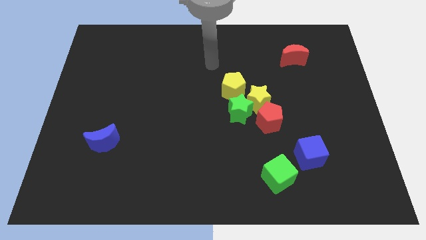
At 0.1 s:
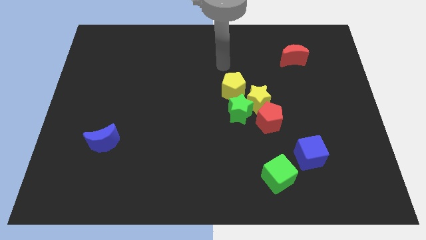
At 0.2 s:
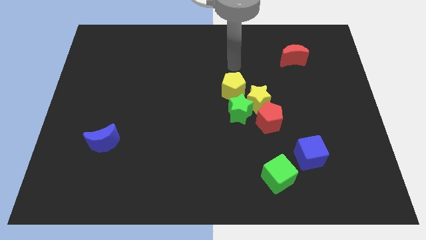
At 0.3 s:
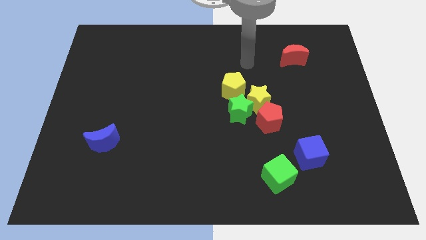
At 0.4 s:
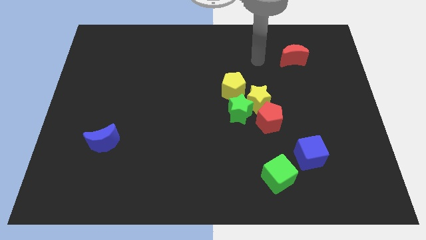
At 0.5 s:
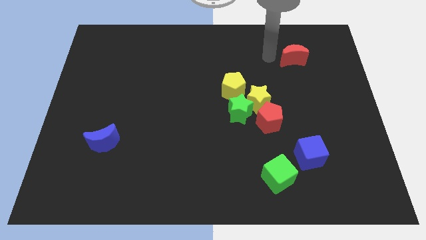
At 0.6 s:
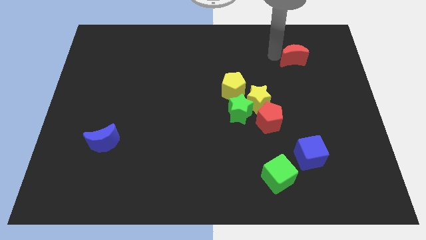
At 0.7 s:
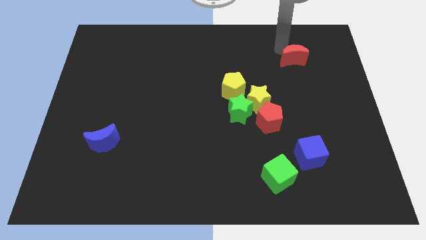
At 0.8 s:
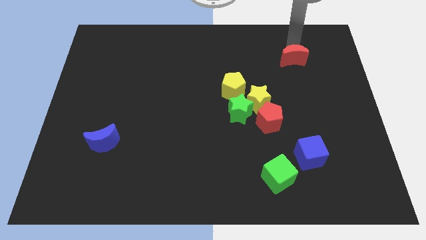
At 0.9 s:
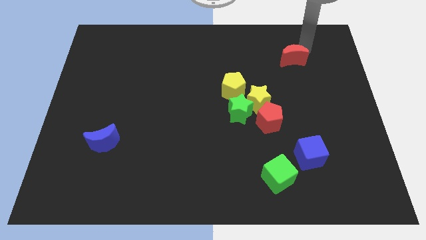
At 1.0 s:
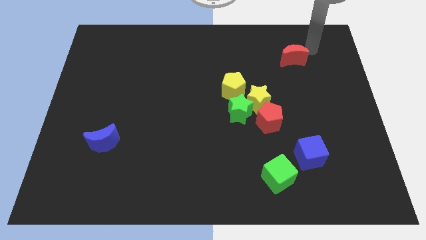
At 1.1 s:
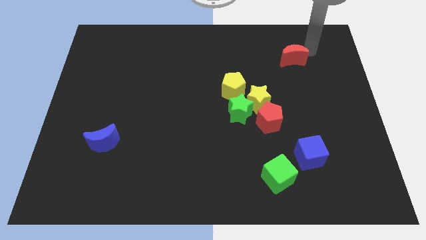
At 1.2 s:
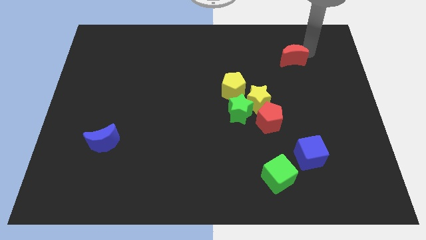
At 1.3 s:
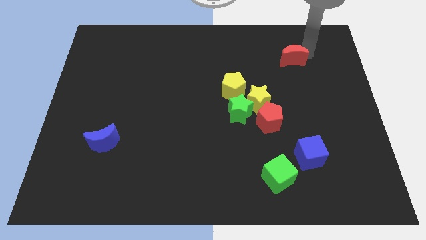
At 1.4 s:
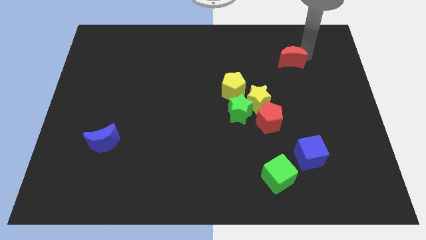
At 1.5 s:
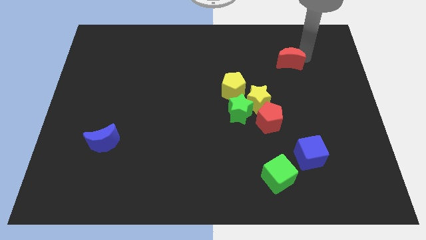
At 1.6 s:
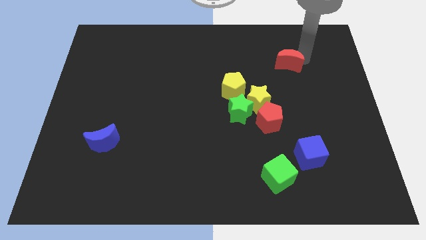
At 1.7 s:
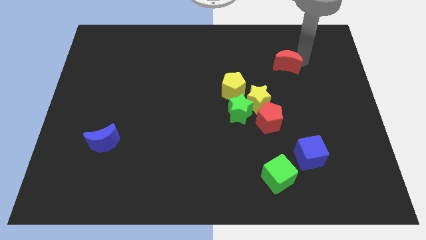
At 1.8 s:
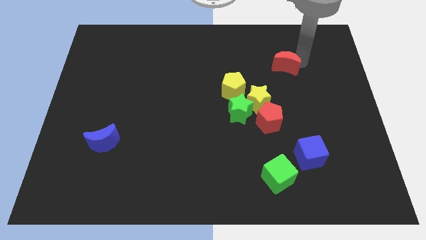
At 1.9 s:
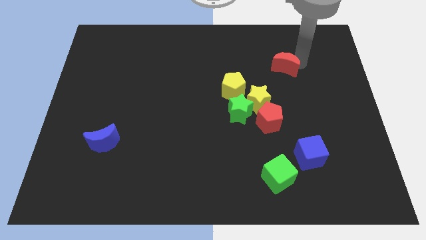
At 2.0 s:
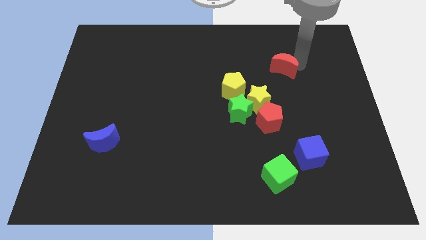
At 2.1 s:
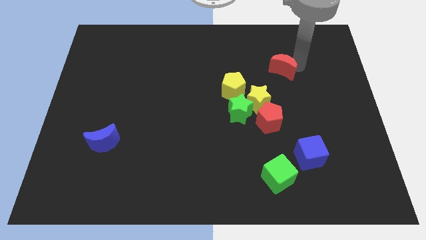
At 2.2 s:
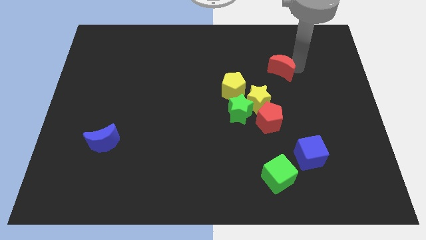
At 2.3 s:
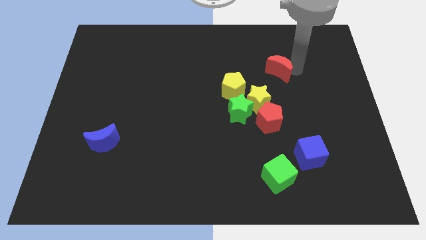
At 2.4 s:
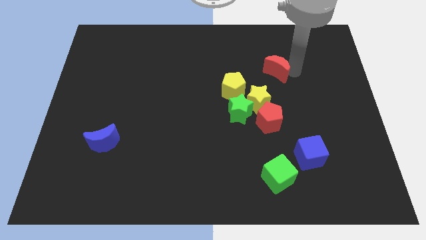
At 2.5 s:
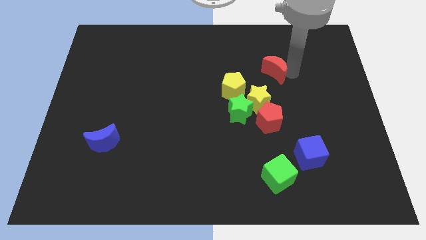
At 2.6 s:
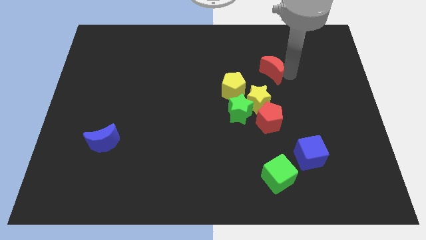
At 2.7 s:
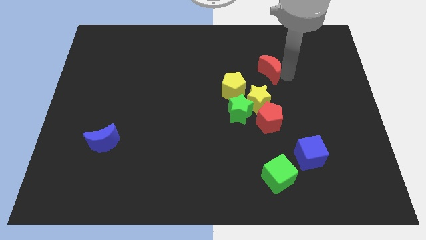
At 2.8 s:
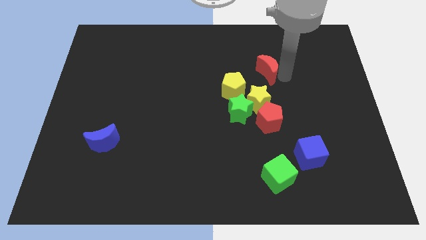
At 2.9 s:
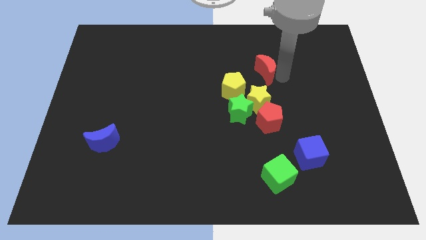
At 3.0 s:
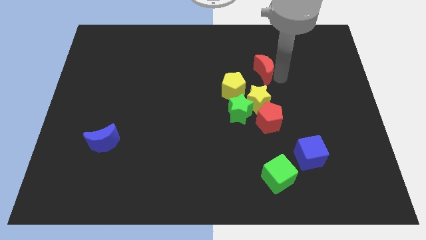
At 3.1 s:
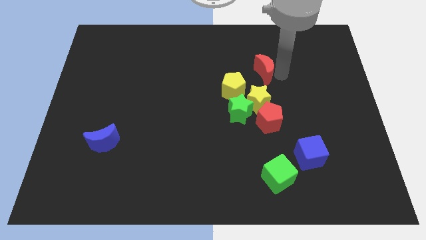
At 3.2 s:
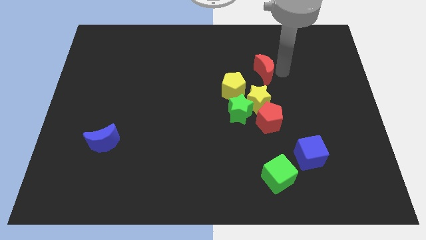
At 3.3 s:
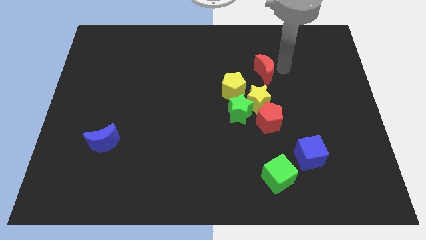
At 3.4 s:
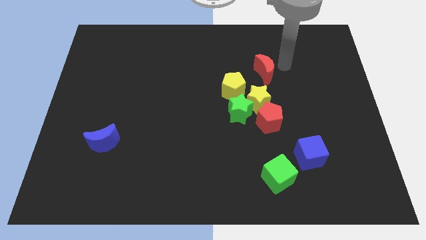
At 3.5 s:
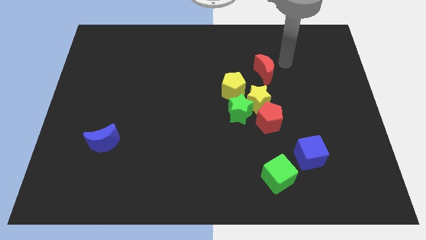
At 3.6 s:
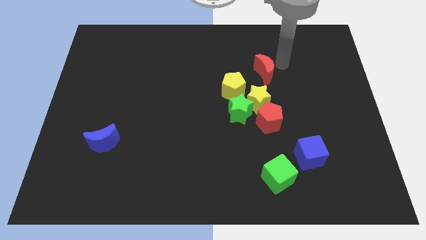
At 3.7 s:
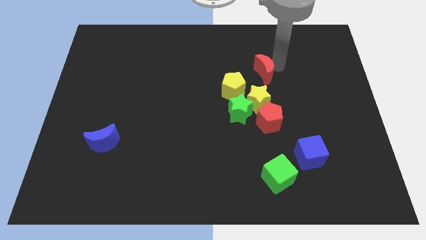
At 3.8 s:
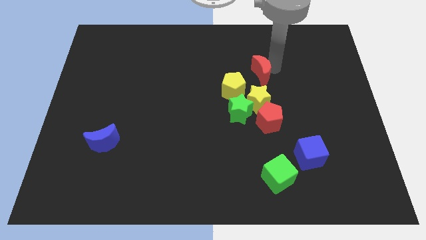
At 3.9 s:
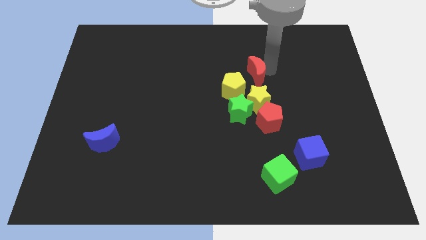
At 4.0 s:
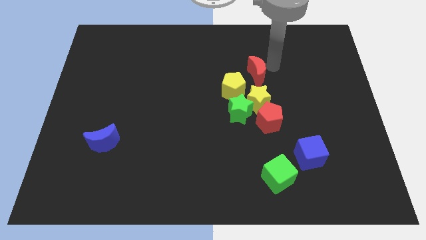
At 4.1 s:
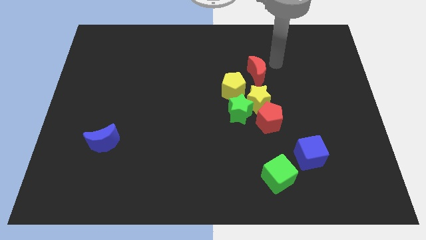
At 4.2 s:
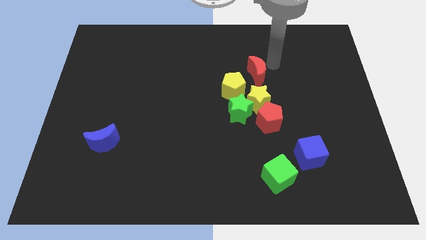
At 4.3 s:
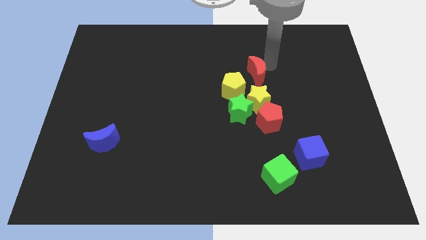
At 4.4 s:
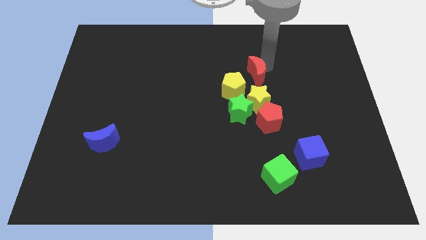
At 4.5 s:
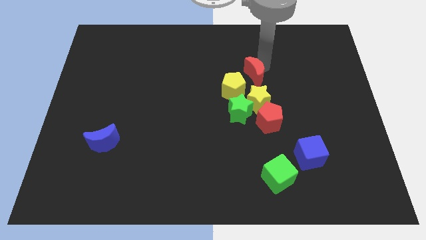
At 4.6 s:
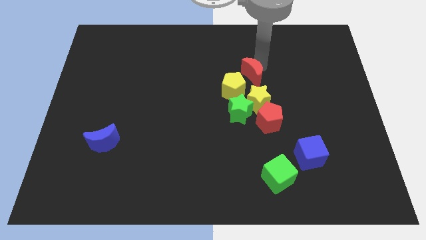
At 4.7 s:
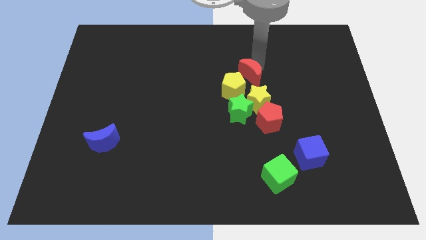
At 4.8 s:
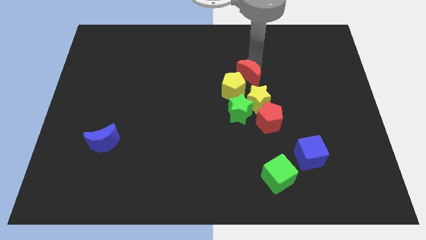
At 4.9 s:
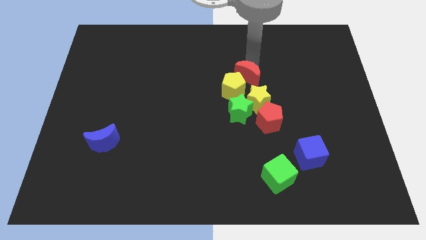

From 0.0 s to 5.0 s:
put the red moon towards the yellow pentagon

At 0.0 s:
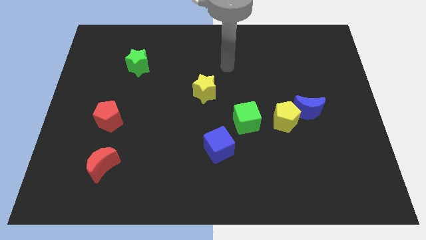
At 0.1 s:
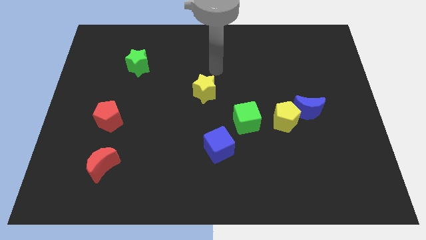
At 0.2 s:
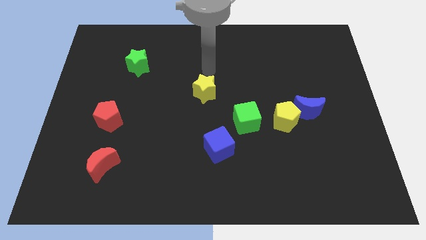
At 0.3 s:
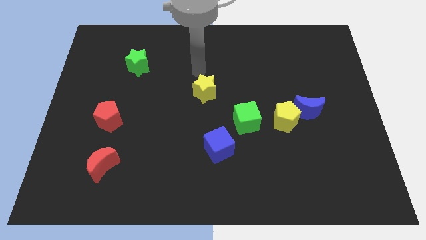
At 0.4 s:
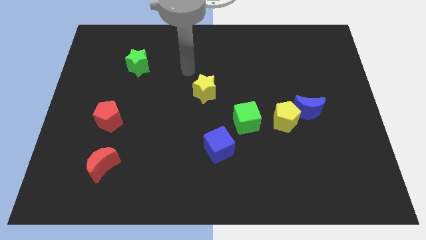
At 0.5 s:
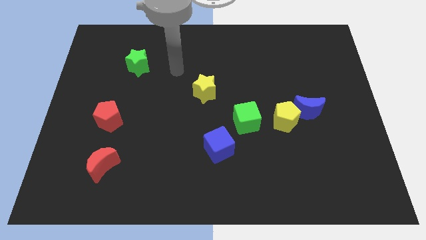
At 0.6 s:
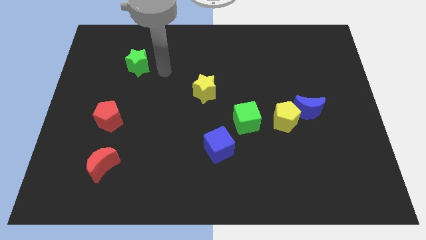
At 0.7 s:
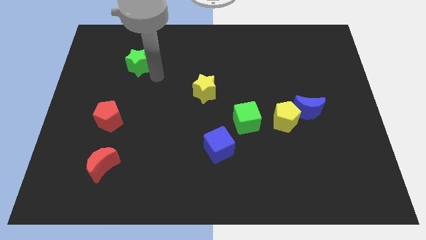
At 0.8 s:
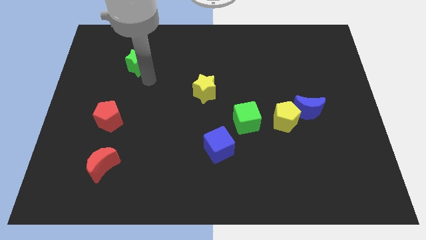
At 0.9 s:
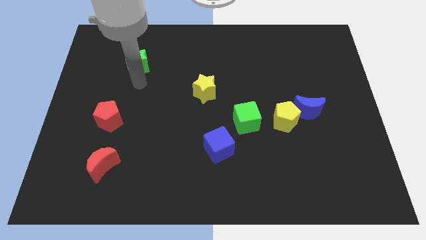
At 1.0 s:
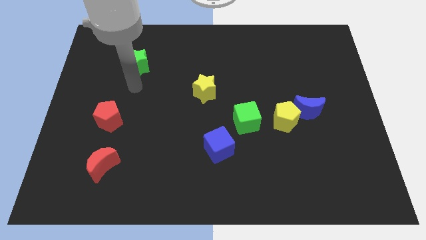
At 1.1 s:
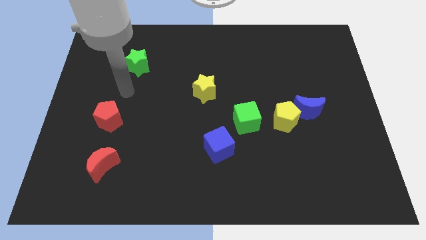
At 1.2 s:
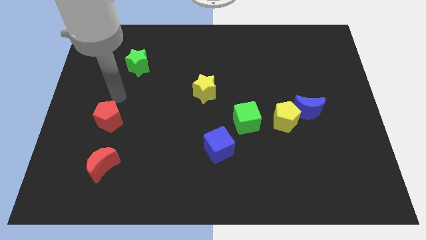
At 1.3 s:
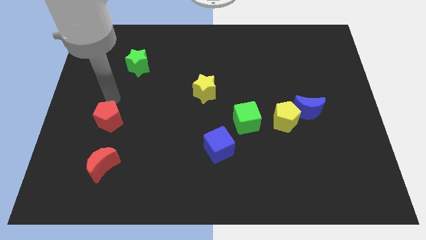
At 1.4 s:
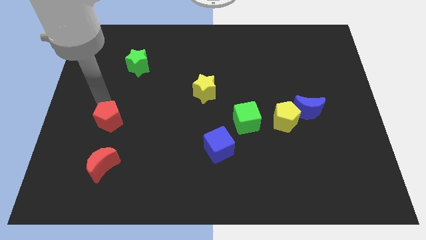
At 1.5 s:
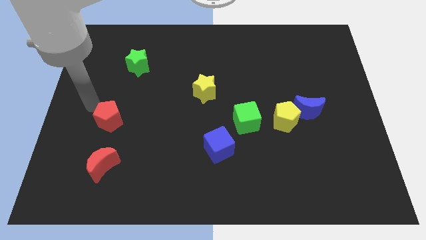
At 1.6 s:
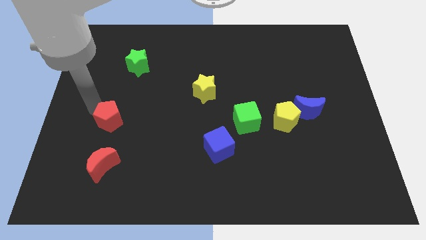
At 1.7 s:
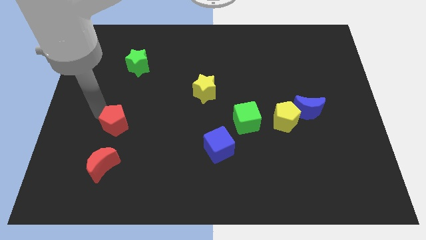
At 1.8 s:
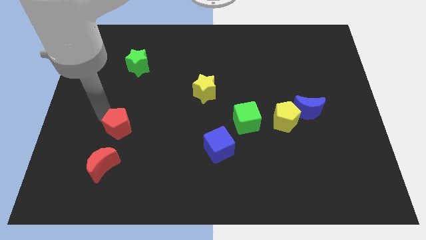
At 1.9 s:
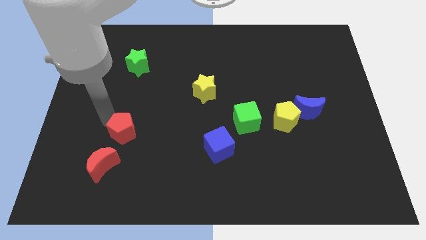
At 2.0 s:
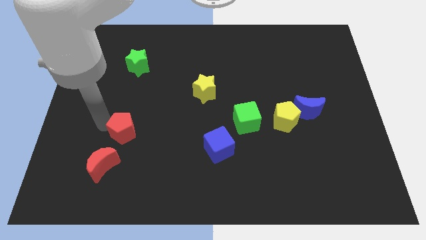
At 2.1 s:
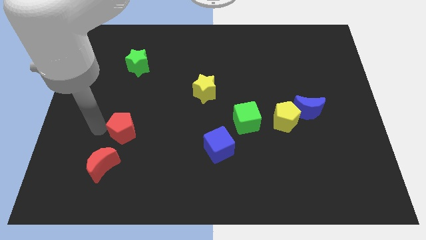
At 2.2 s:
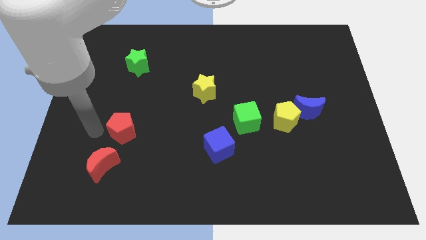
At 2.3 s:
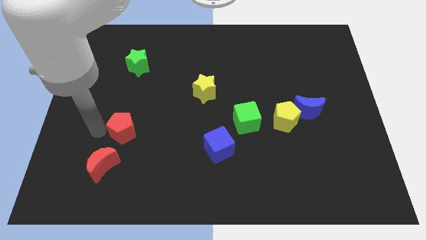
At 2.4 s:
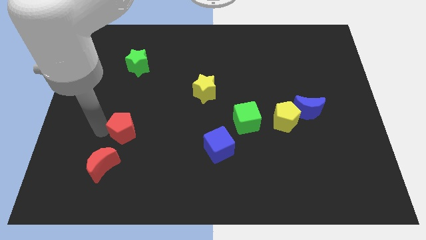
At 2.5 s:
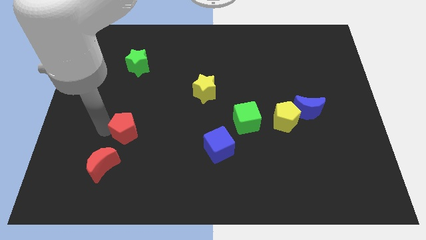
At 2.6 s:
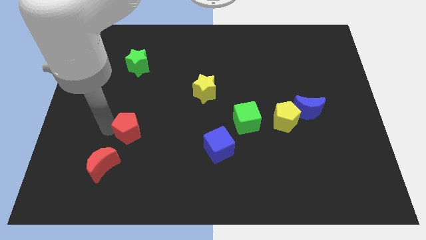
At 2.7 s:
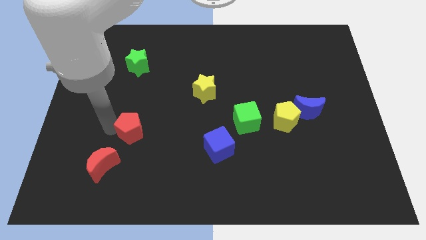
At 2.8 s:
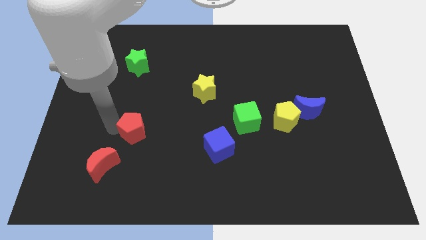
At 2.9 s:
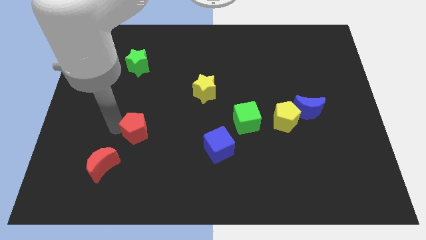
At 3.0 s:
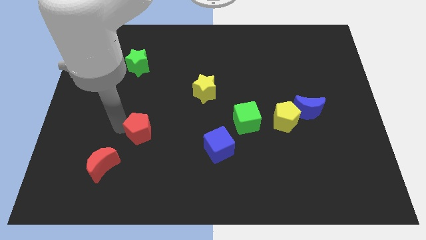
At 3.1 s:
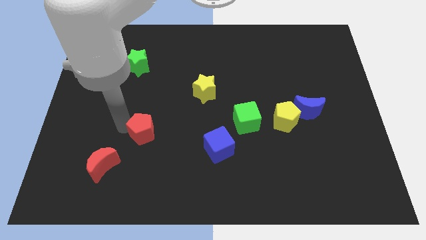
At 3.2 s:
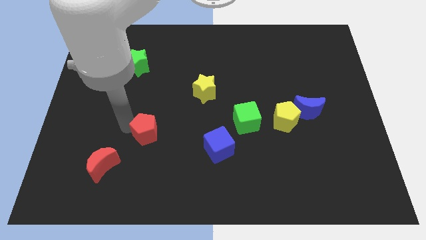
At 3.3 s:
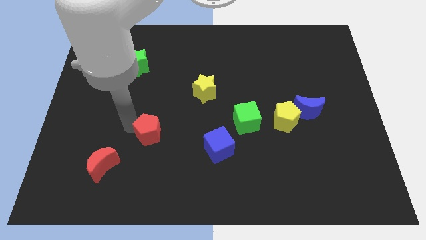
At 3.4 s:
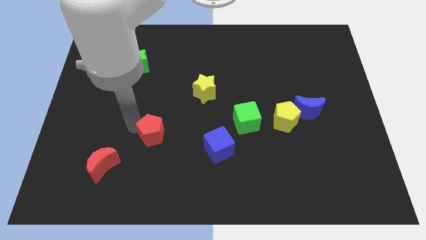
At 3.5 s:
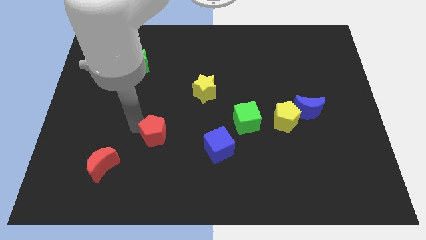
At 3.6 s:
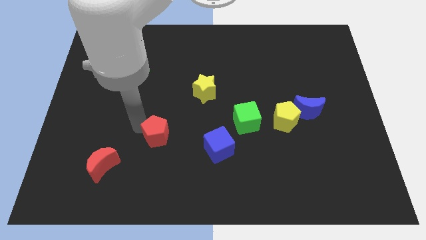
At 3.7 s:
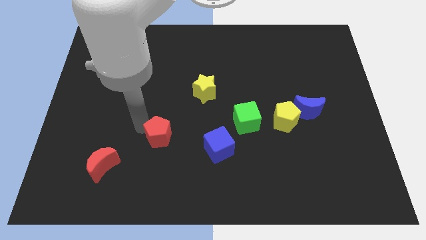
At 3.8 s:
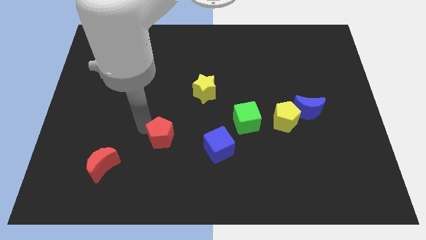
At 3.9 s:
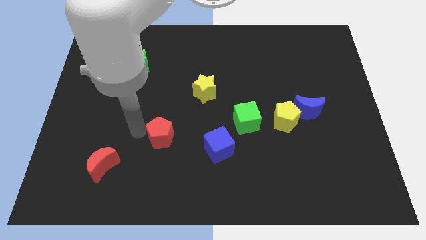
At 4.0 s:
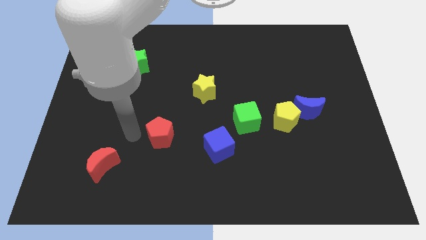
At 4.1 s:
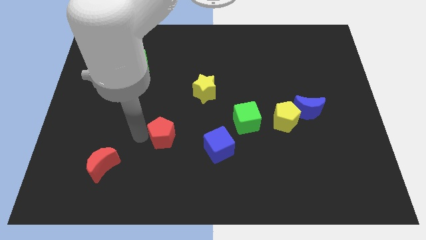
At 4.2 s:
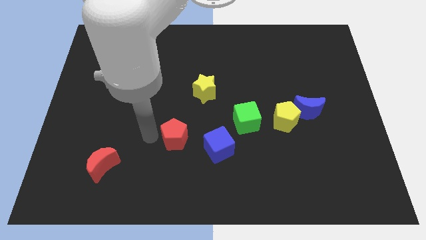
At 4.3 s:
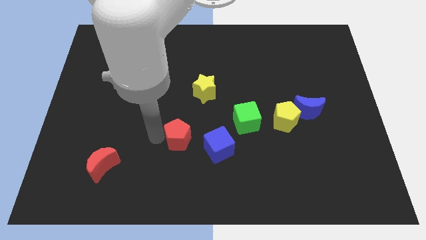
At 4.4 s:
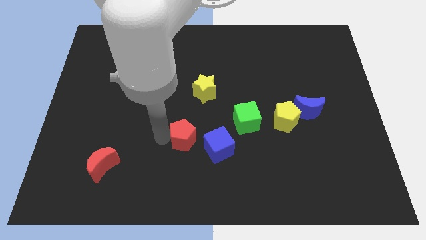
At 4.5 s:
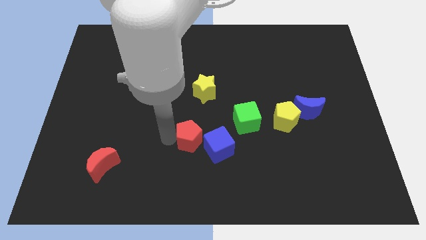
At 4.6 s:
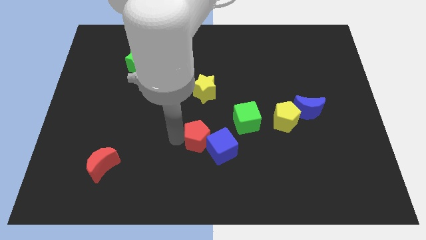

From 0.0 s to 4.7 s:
push the red pentagon to the blue cube
